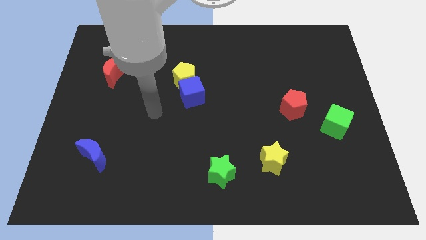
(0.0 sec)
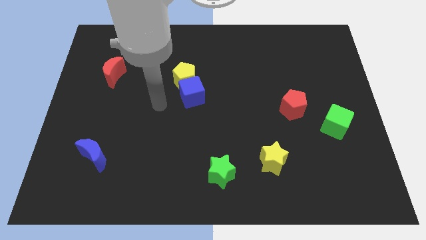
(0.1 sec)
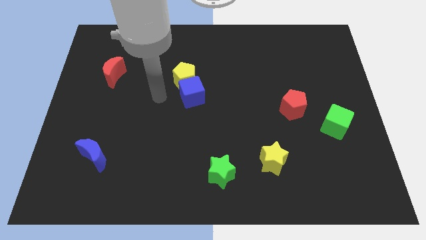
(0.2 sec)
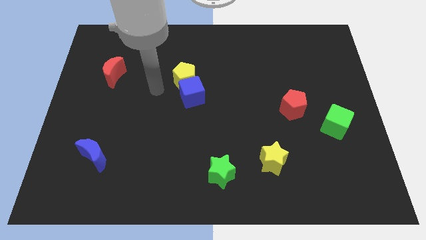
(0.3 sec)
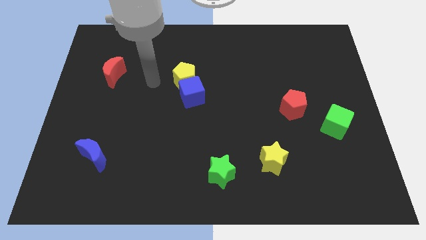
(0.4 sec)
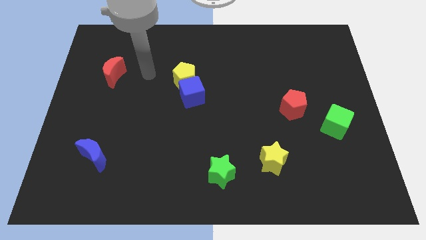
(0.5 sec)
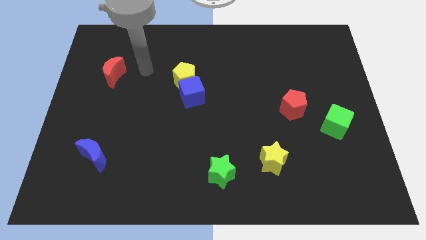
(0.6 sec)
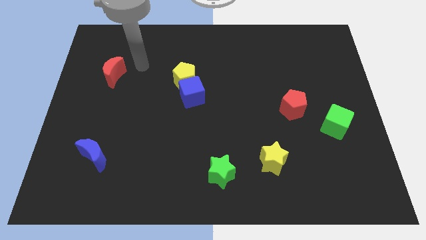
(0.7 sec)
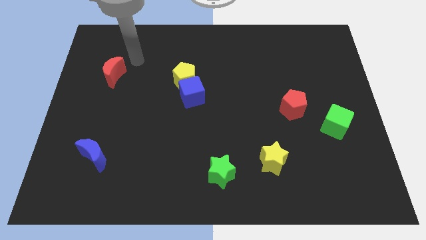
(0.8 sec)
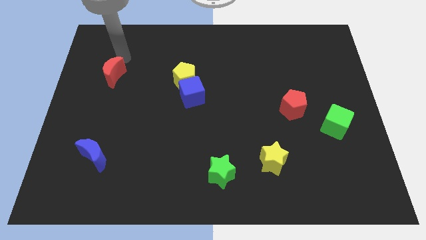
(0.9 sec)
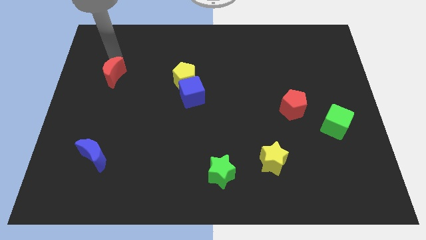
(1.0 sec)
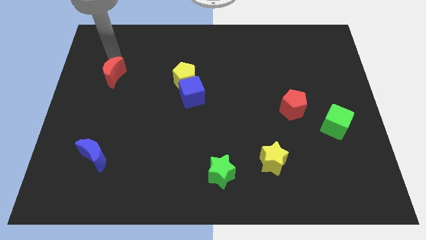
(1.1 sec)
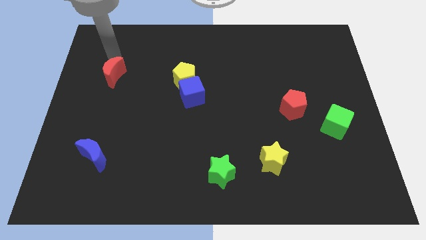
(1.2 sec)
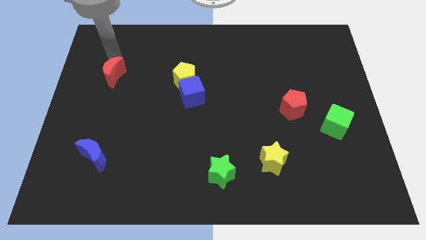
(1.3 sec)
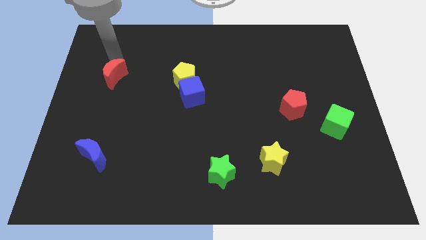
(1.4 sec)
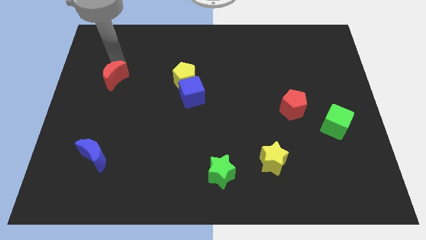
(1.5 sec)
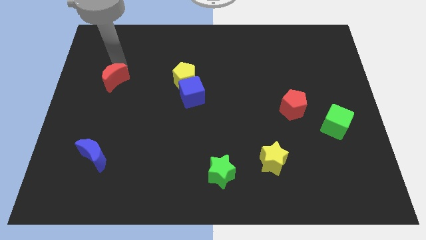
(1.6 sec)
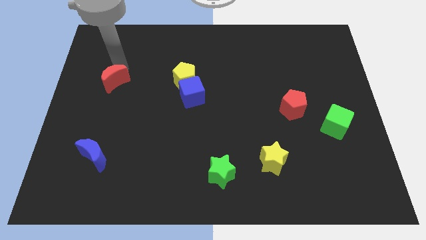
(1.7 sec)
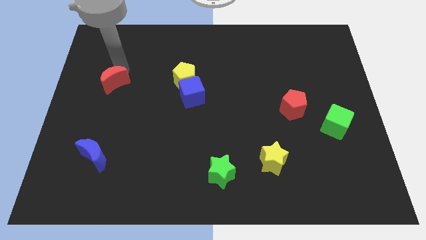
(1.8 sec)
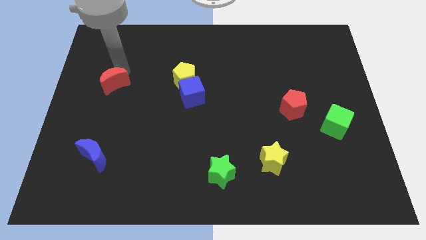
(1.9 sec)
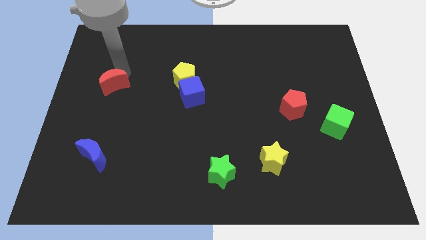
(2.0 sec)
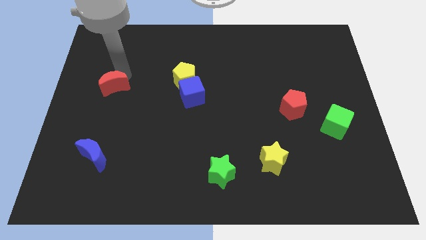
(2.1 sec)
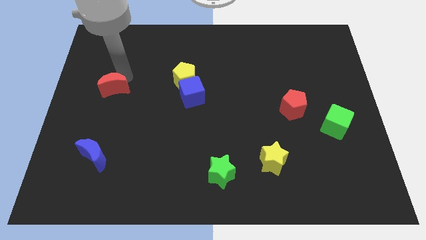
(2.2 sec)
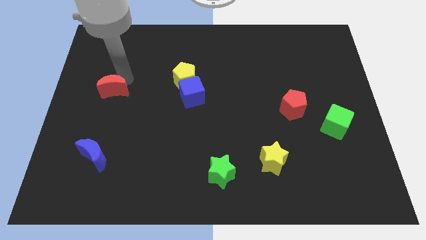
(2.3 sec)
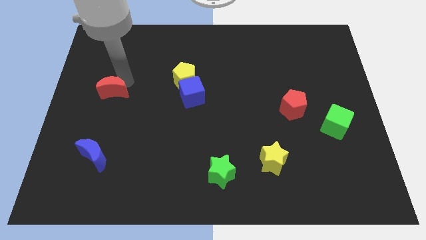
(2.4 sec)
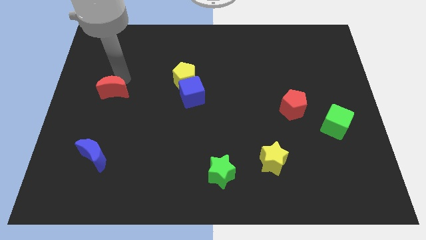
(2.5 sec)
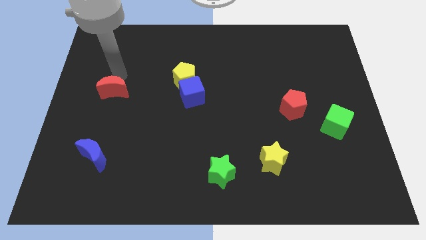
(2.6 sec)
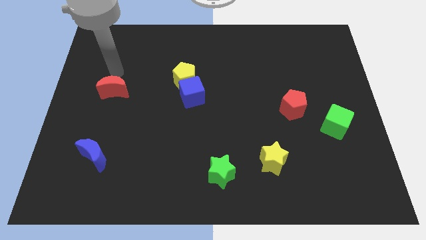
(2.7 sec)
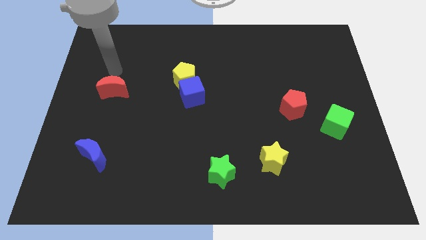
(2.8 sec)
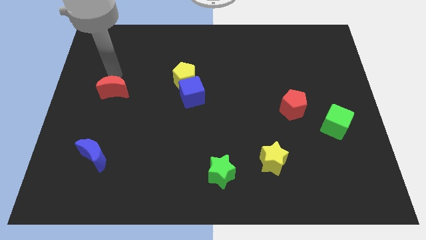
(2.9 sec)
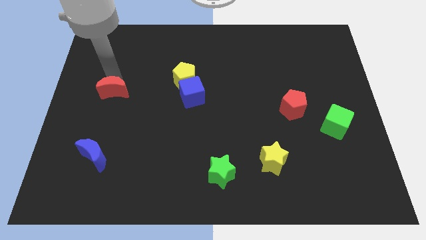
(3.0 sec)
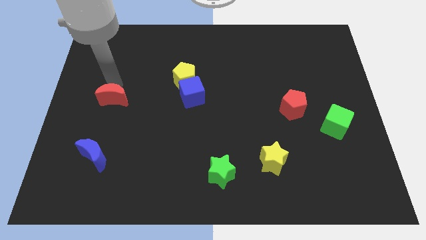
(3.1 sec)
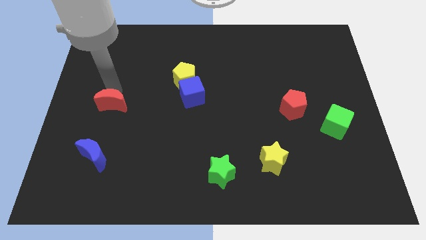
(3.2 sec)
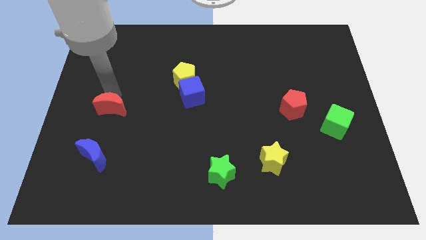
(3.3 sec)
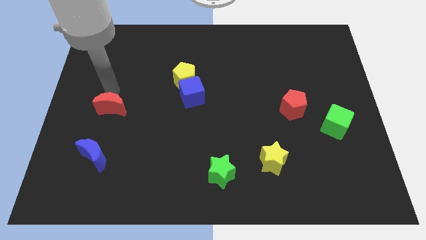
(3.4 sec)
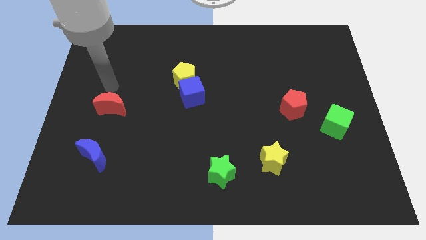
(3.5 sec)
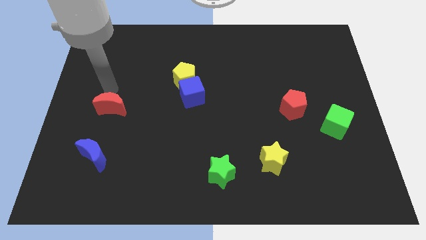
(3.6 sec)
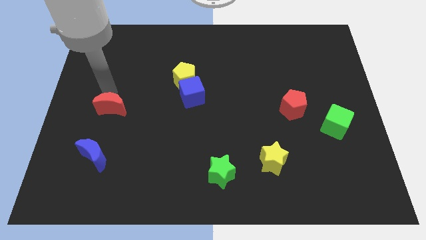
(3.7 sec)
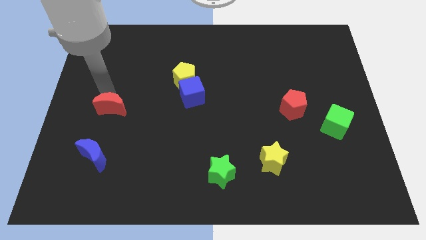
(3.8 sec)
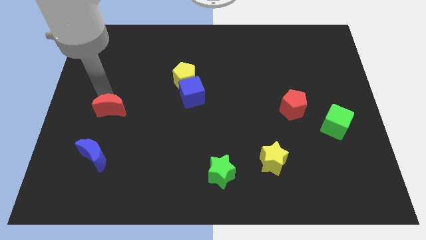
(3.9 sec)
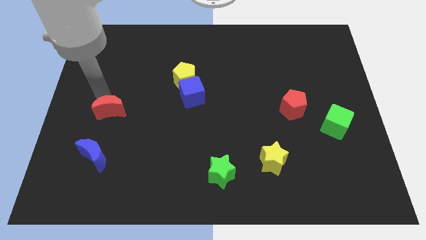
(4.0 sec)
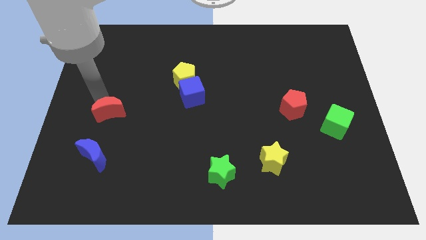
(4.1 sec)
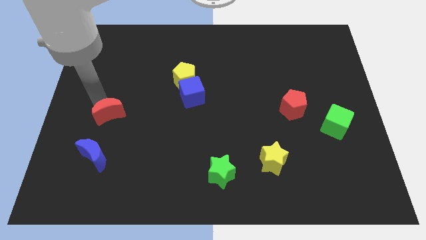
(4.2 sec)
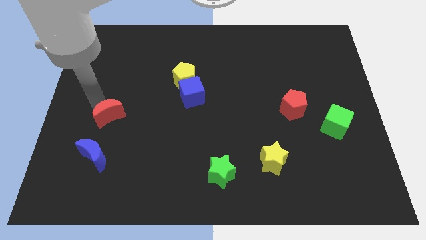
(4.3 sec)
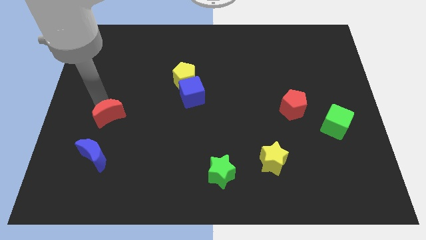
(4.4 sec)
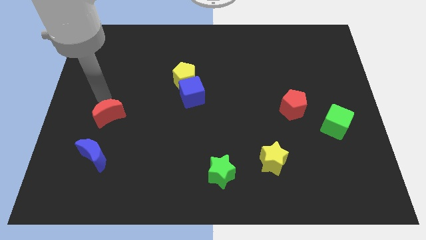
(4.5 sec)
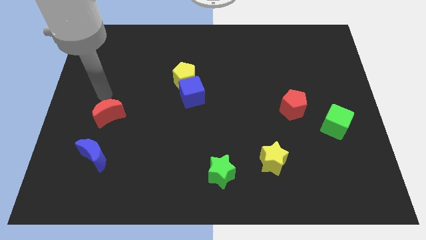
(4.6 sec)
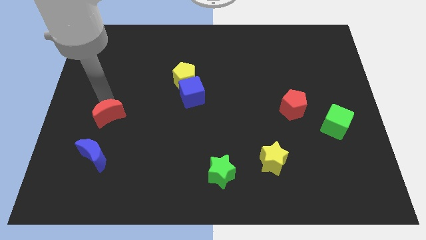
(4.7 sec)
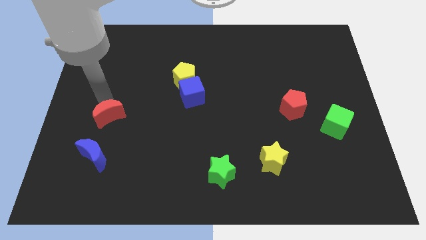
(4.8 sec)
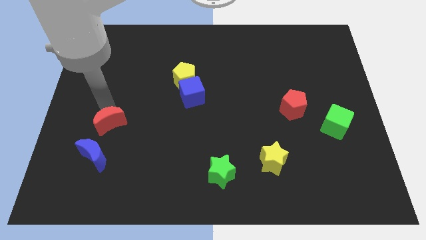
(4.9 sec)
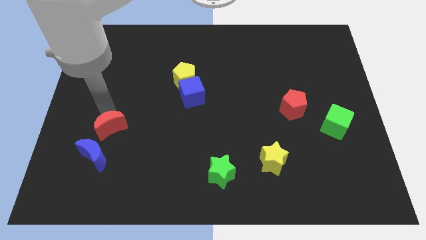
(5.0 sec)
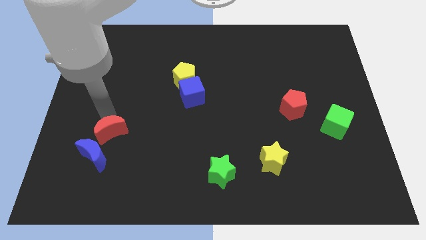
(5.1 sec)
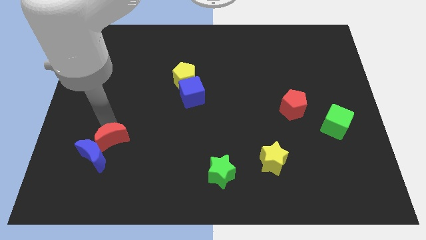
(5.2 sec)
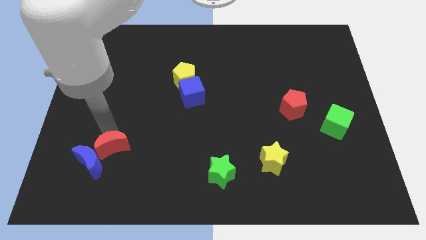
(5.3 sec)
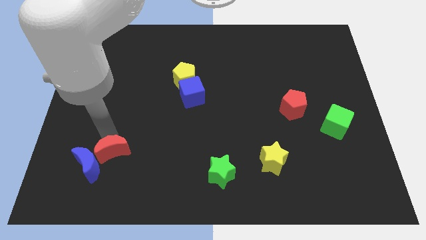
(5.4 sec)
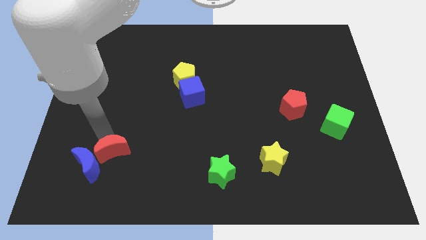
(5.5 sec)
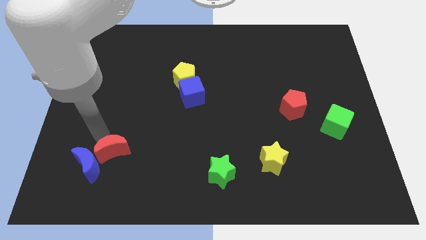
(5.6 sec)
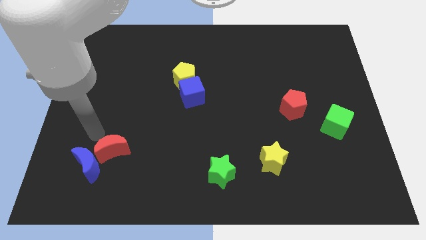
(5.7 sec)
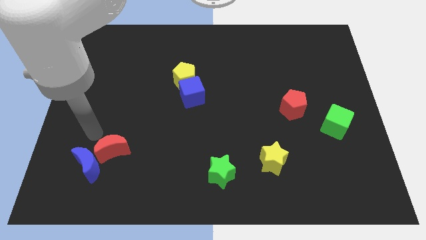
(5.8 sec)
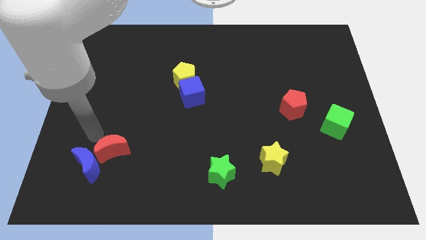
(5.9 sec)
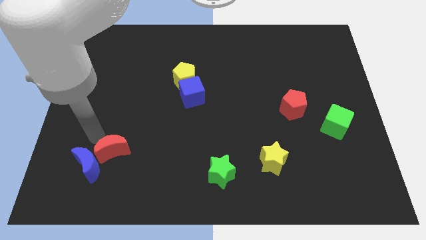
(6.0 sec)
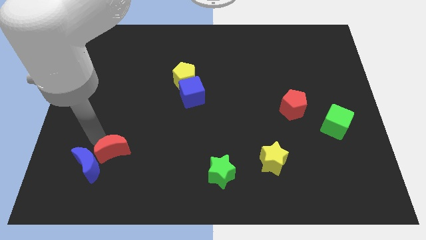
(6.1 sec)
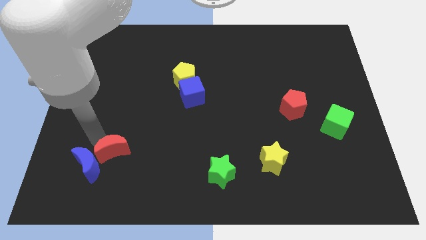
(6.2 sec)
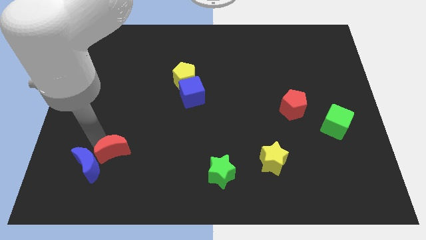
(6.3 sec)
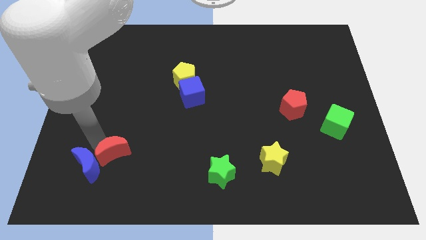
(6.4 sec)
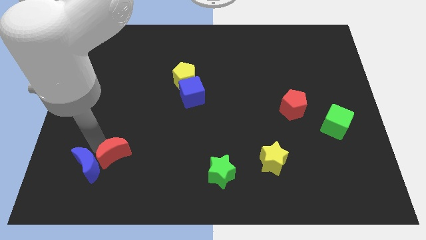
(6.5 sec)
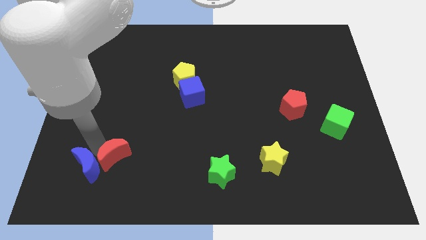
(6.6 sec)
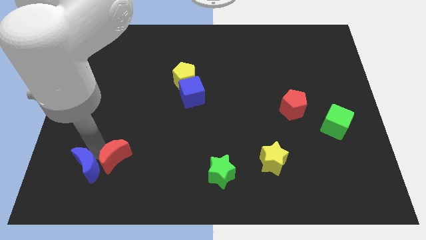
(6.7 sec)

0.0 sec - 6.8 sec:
move the red moon to the bottom right side of the blue moon
